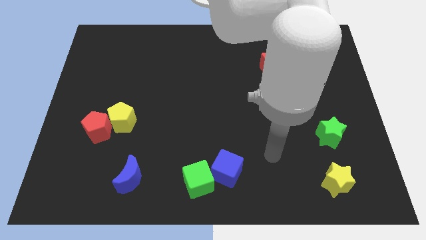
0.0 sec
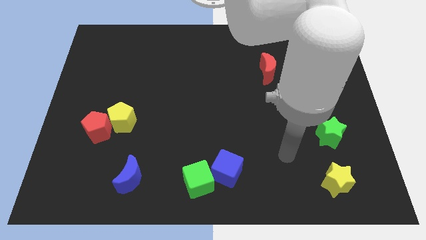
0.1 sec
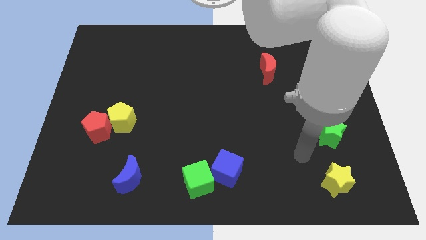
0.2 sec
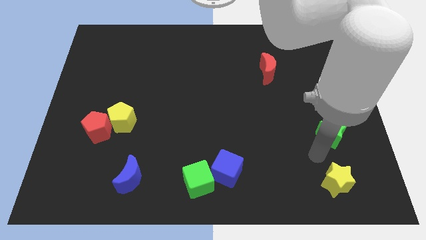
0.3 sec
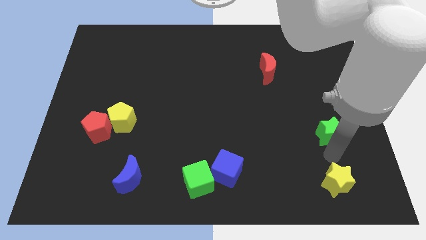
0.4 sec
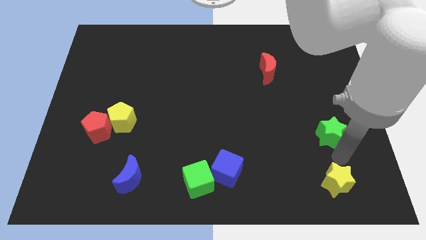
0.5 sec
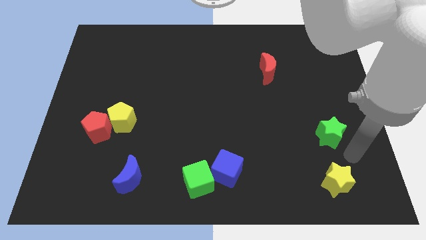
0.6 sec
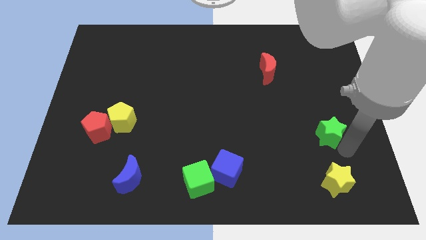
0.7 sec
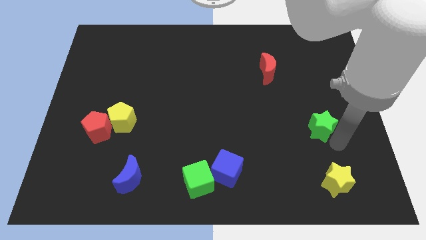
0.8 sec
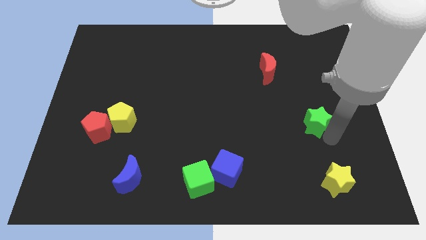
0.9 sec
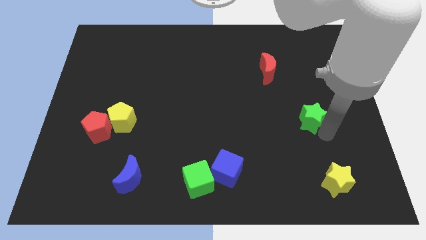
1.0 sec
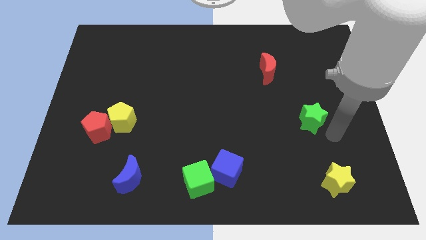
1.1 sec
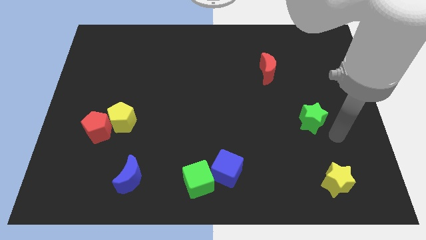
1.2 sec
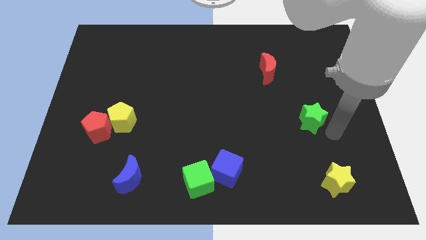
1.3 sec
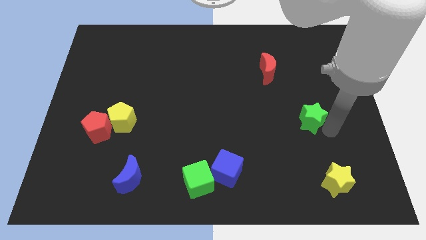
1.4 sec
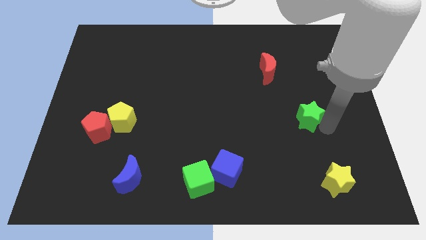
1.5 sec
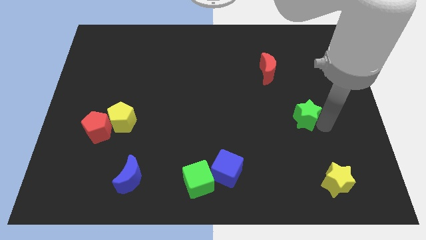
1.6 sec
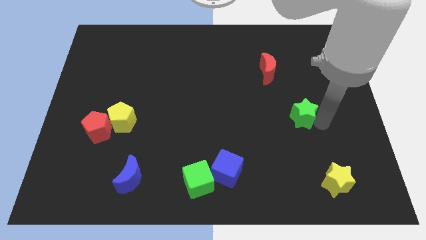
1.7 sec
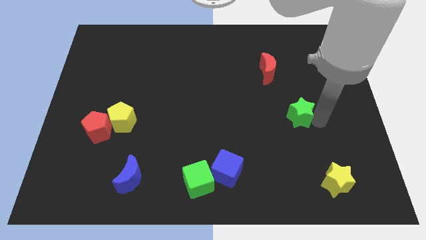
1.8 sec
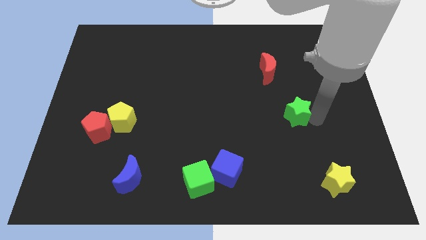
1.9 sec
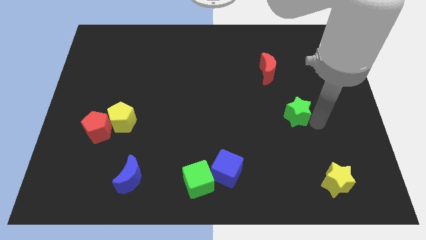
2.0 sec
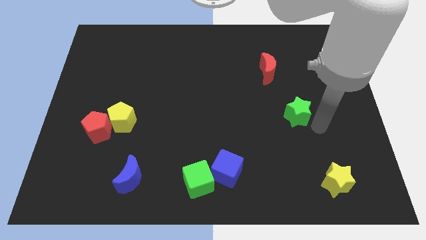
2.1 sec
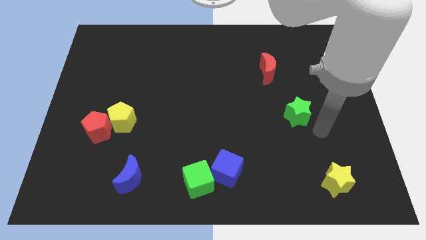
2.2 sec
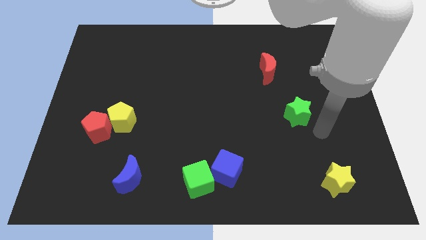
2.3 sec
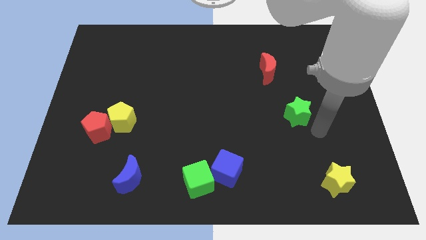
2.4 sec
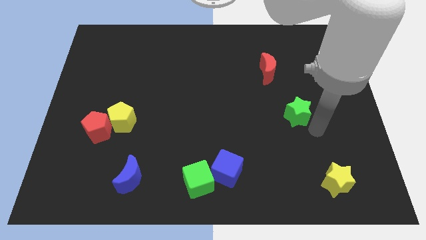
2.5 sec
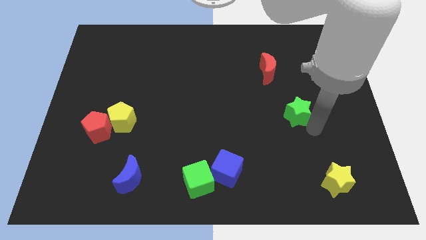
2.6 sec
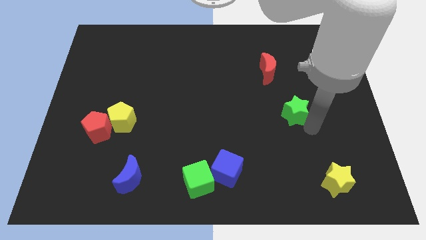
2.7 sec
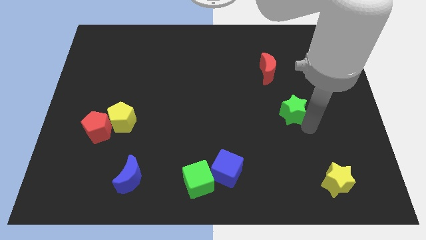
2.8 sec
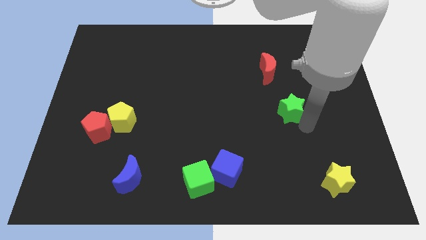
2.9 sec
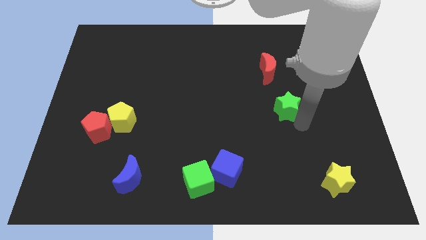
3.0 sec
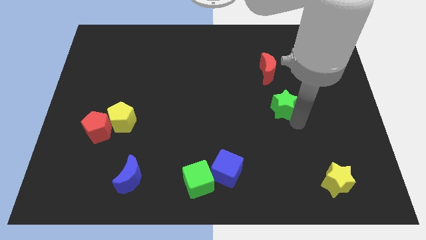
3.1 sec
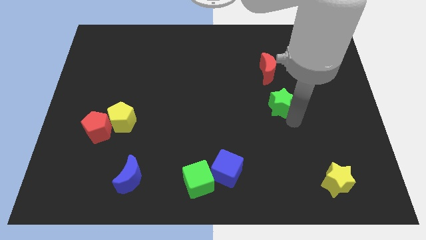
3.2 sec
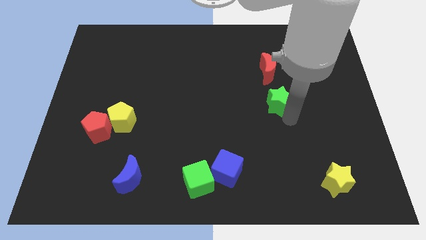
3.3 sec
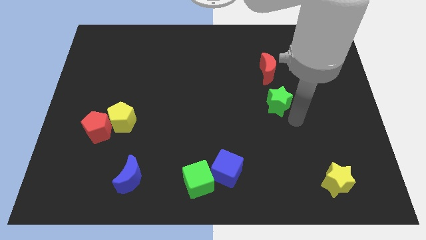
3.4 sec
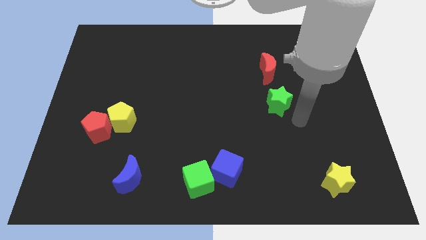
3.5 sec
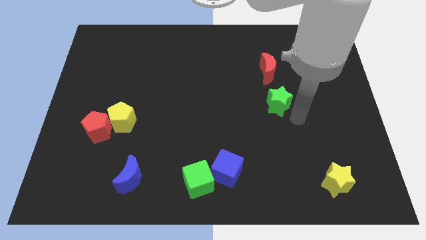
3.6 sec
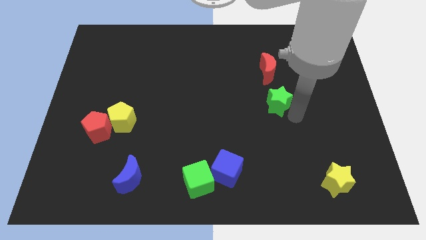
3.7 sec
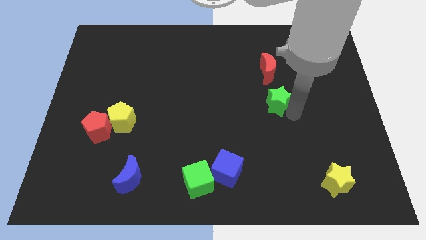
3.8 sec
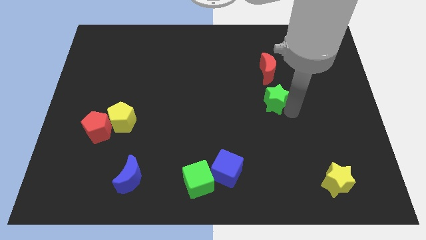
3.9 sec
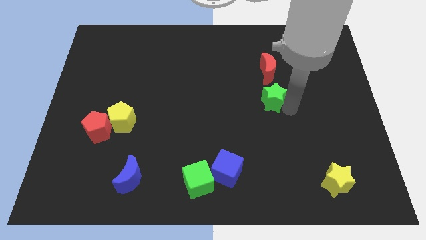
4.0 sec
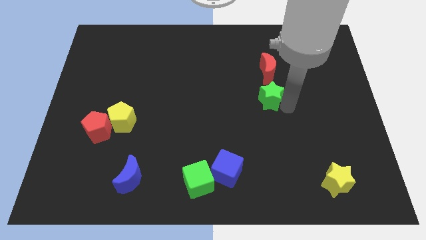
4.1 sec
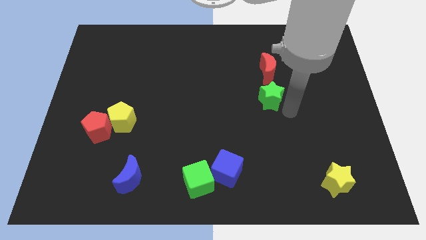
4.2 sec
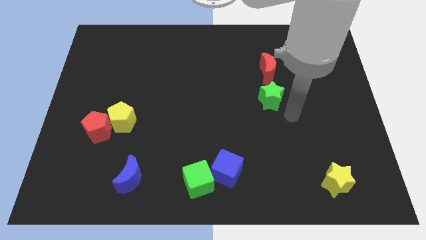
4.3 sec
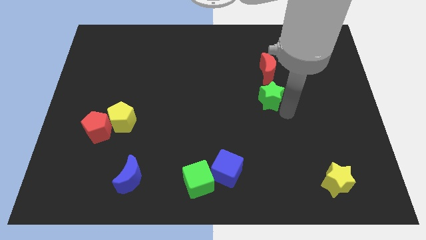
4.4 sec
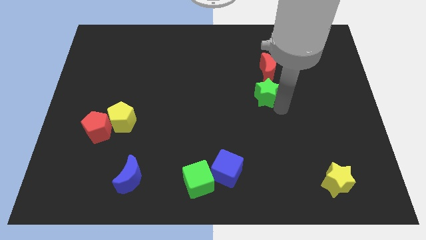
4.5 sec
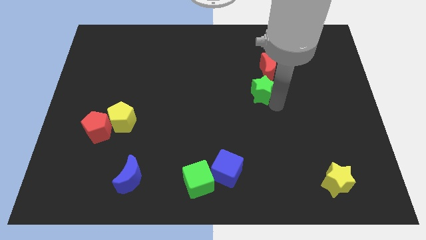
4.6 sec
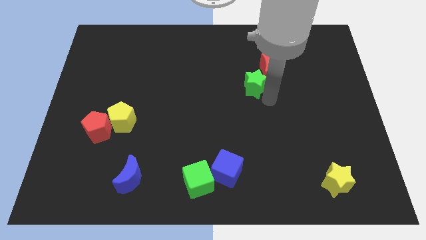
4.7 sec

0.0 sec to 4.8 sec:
push the green star upwards and left diagonally

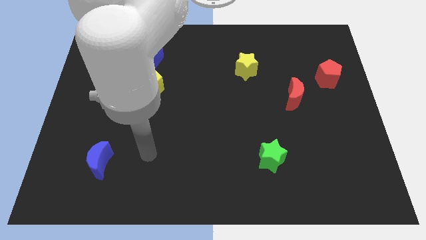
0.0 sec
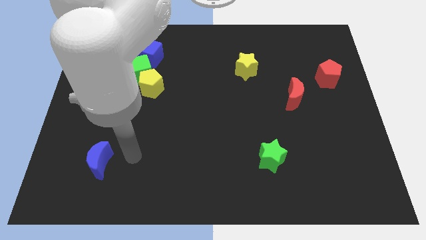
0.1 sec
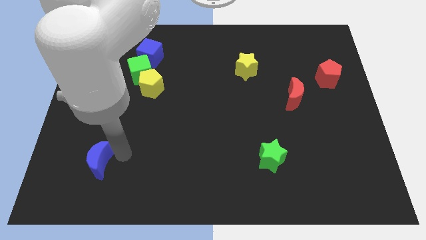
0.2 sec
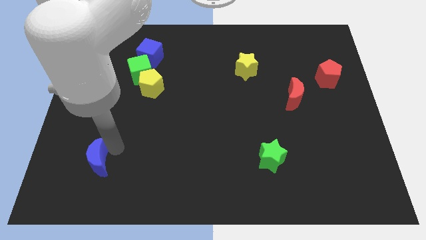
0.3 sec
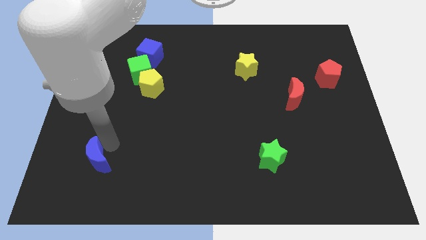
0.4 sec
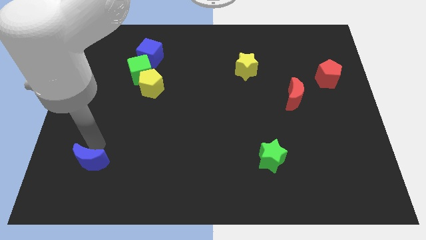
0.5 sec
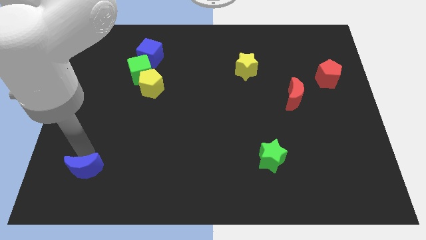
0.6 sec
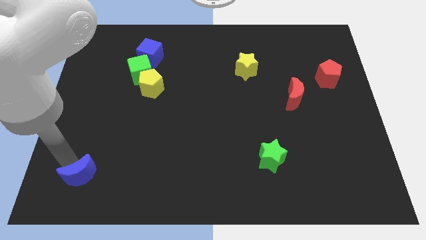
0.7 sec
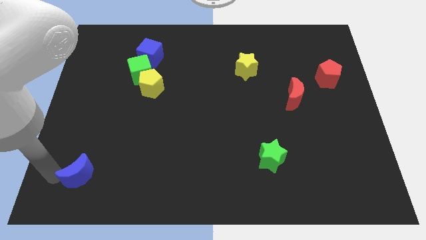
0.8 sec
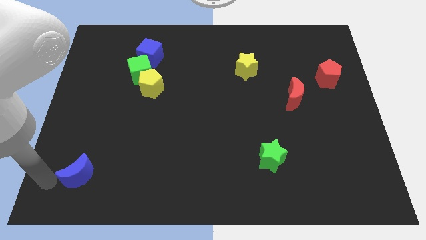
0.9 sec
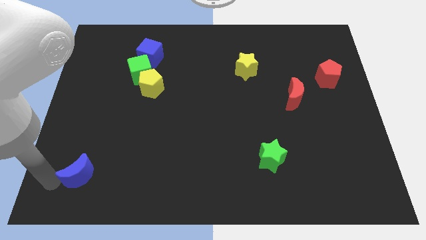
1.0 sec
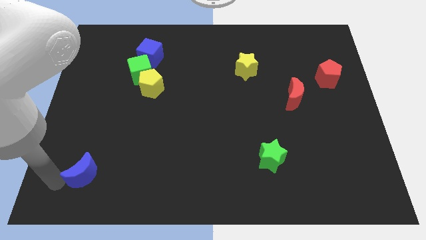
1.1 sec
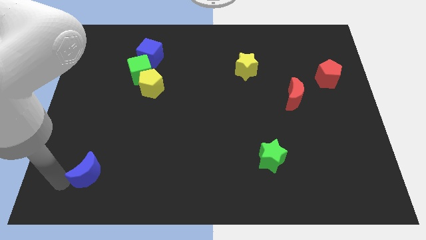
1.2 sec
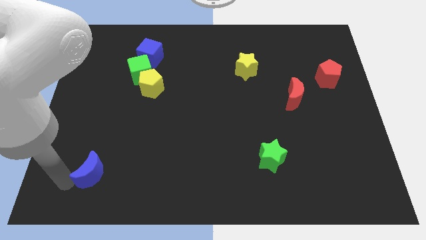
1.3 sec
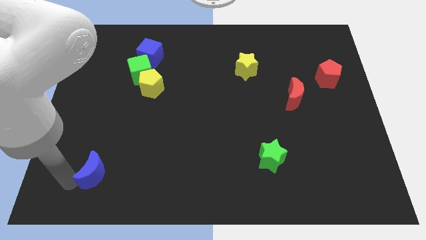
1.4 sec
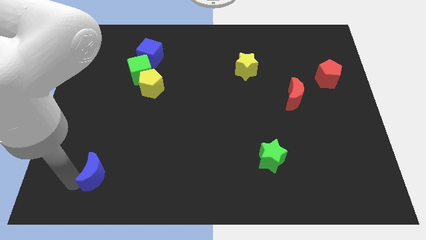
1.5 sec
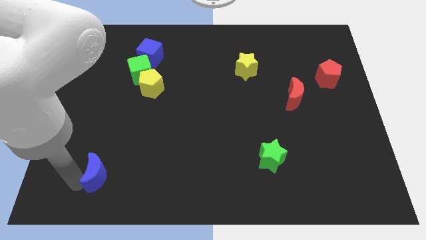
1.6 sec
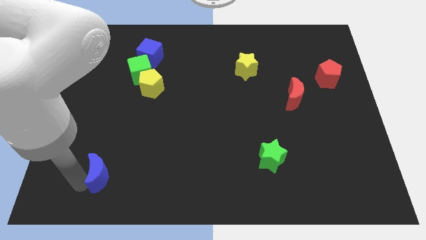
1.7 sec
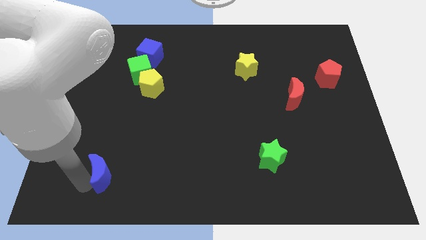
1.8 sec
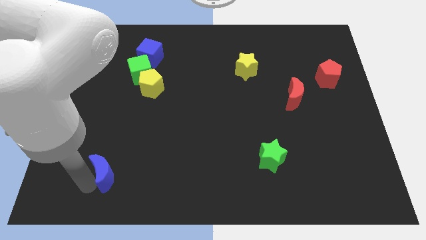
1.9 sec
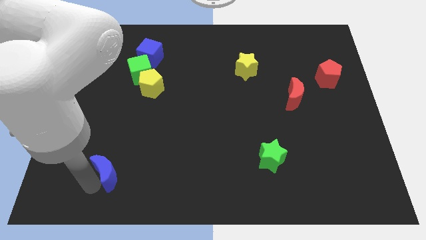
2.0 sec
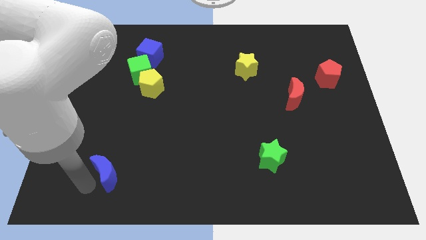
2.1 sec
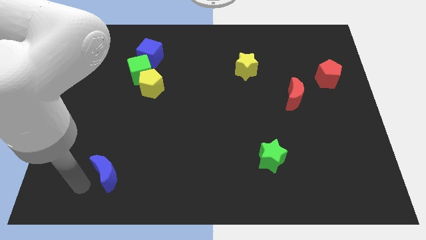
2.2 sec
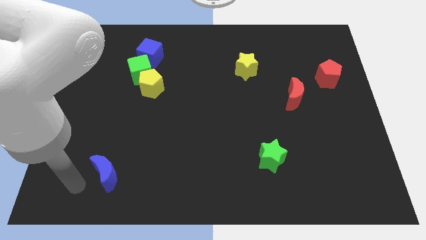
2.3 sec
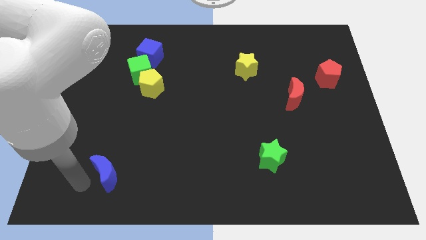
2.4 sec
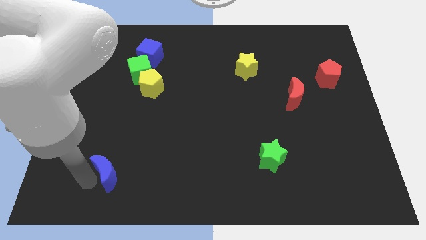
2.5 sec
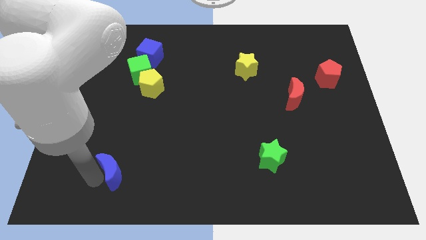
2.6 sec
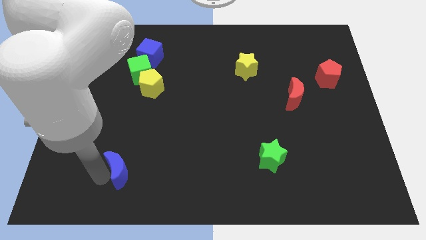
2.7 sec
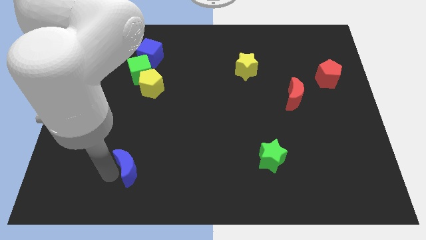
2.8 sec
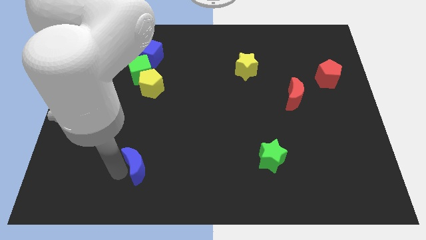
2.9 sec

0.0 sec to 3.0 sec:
slide the blue moon to the right a bit

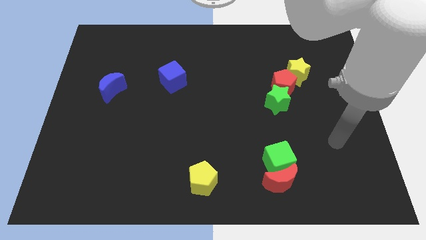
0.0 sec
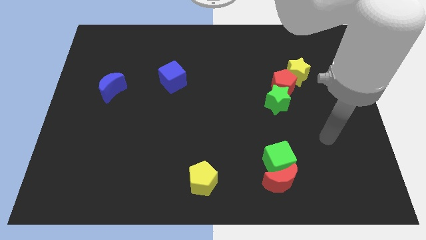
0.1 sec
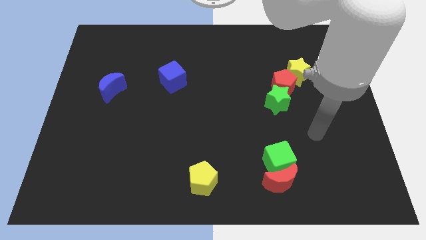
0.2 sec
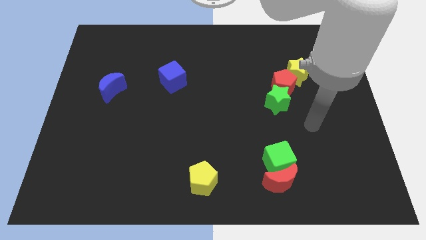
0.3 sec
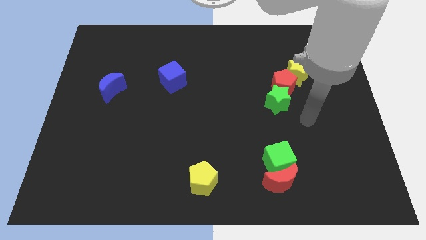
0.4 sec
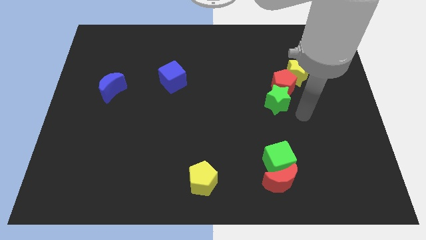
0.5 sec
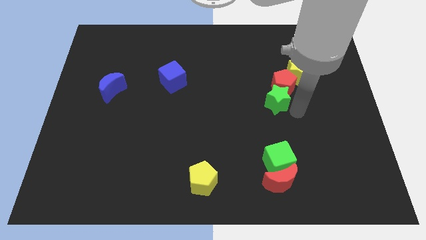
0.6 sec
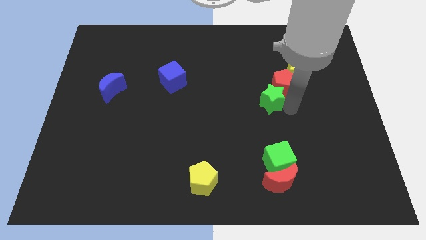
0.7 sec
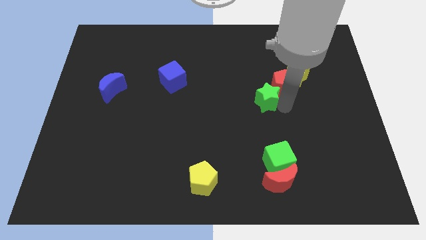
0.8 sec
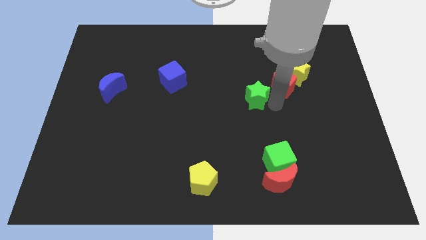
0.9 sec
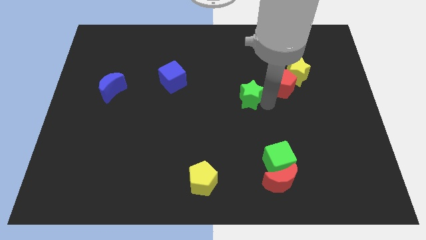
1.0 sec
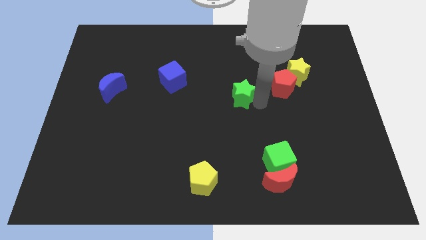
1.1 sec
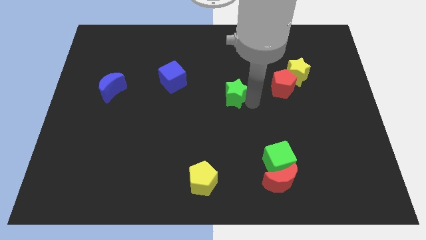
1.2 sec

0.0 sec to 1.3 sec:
slightly slide the green star upwards and to the left
